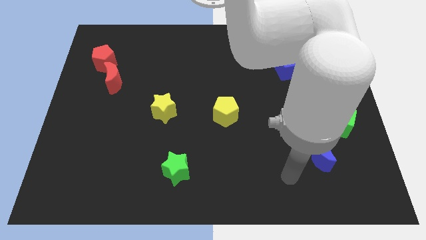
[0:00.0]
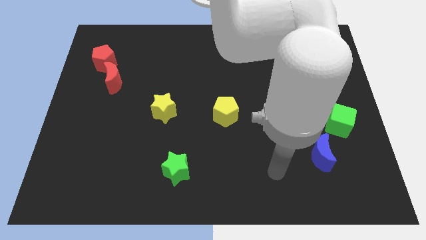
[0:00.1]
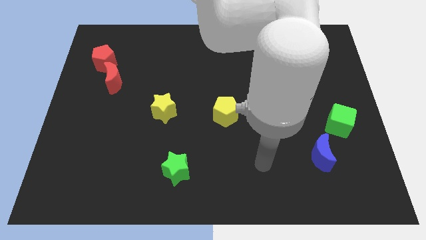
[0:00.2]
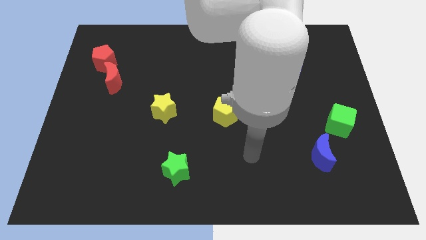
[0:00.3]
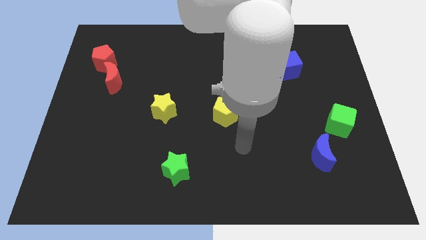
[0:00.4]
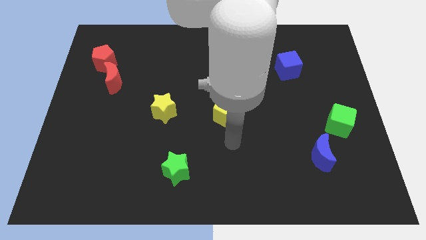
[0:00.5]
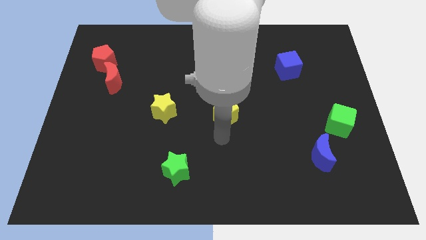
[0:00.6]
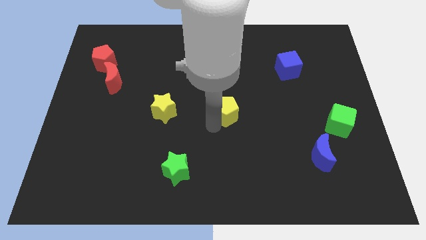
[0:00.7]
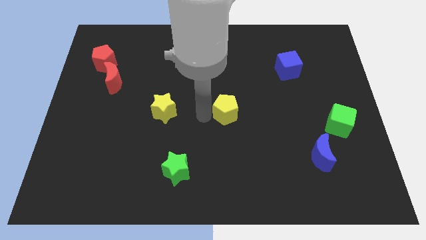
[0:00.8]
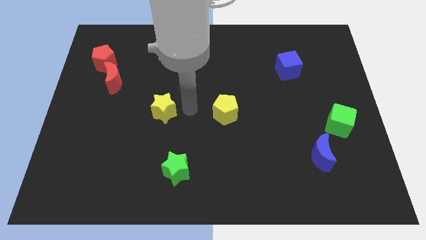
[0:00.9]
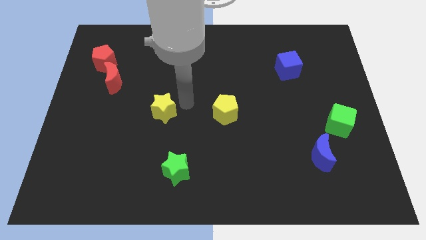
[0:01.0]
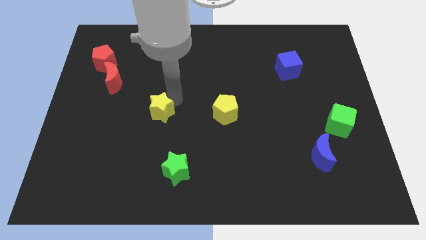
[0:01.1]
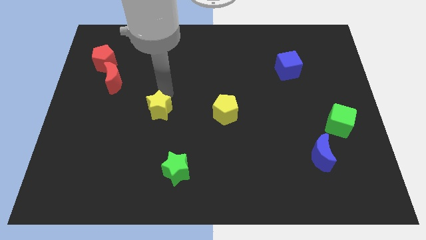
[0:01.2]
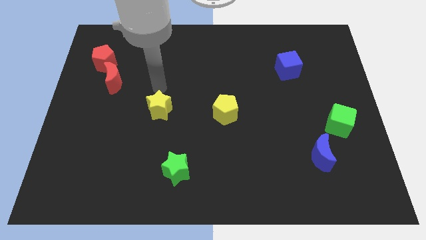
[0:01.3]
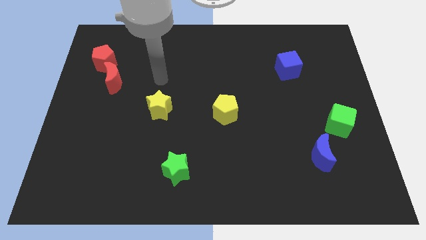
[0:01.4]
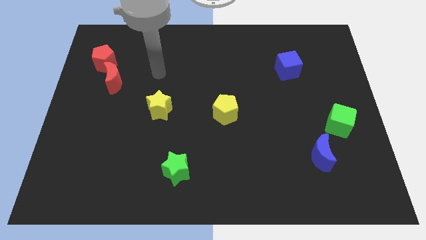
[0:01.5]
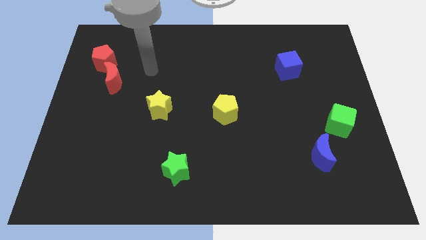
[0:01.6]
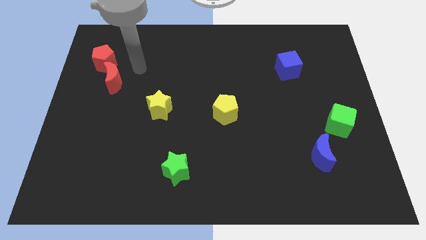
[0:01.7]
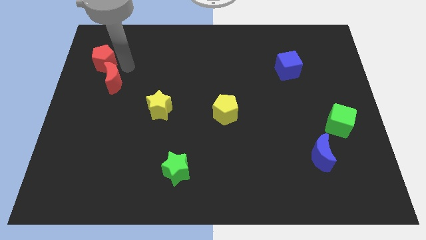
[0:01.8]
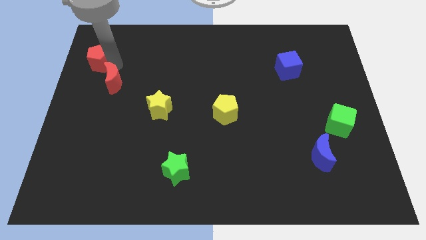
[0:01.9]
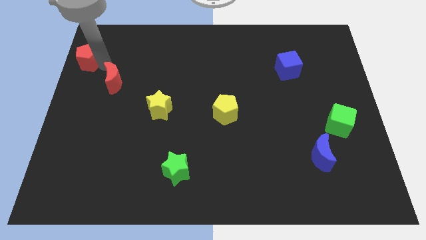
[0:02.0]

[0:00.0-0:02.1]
pull the red moon apart from the red pentagon

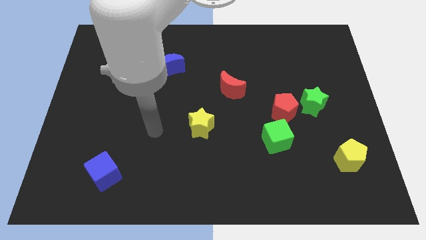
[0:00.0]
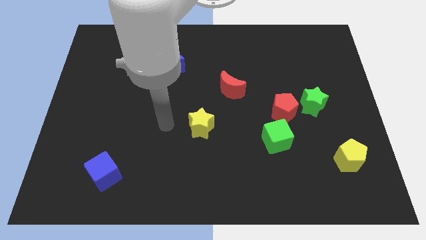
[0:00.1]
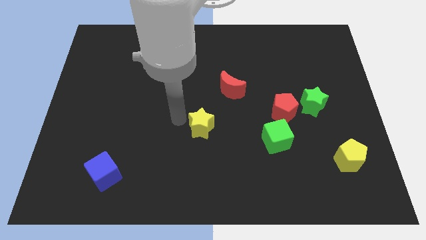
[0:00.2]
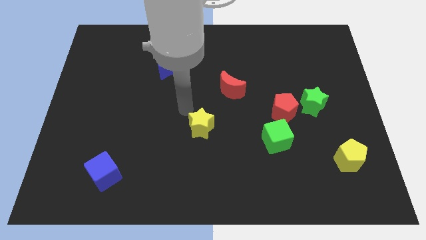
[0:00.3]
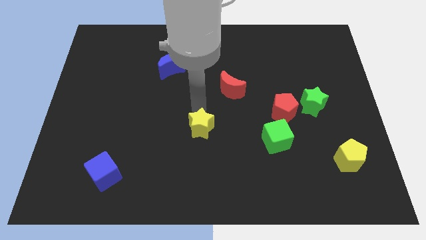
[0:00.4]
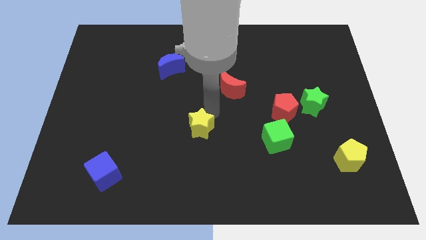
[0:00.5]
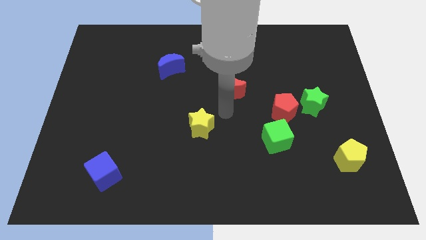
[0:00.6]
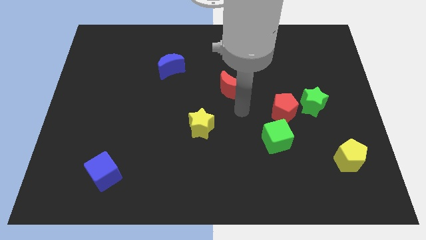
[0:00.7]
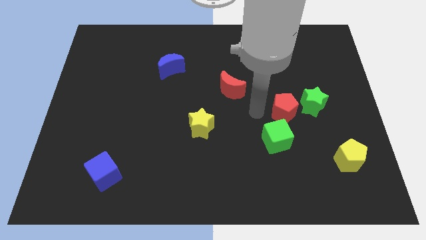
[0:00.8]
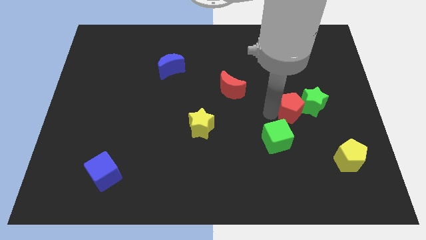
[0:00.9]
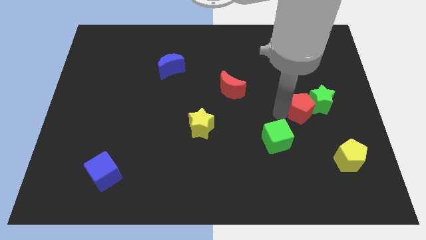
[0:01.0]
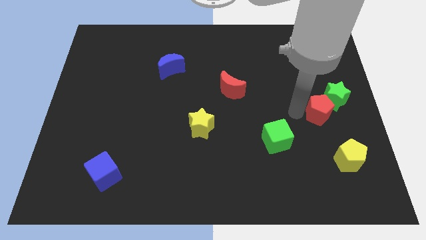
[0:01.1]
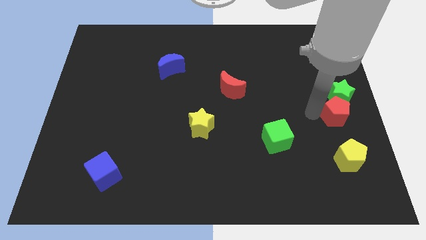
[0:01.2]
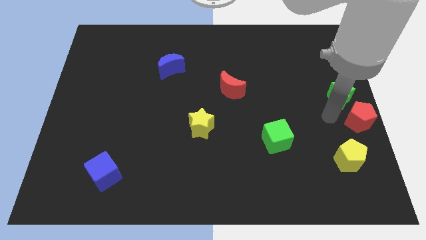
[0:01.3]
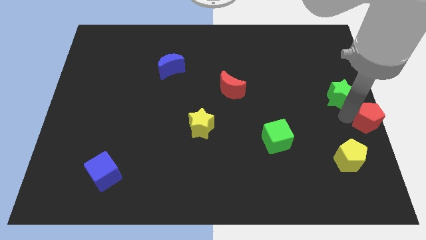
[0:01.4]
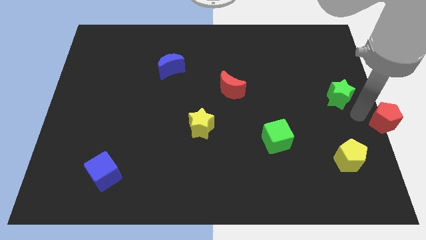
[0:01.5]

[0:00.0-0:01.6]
pull the green star apart from the red pentagon

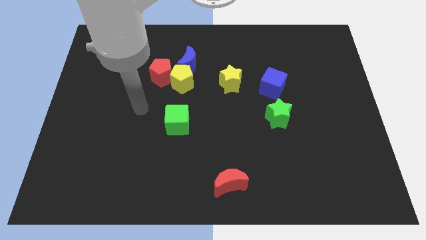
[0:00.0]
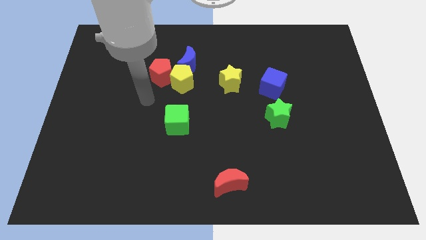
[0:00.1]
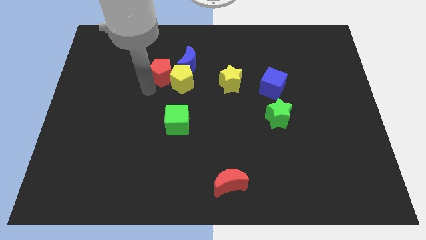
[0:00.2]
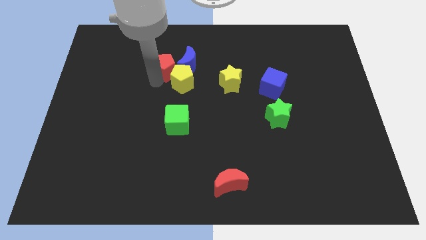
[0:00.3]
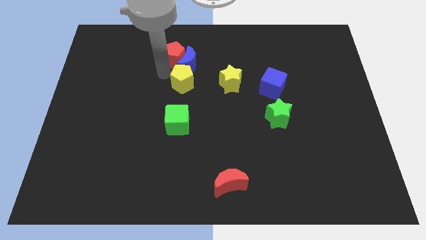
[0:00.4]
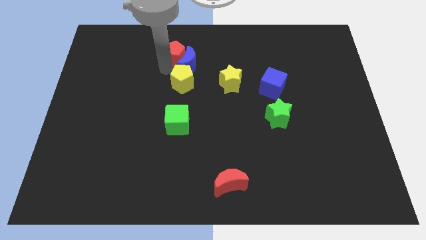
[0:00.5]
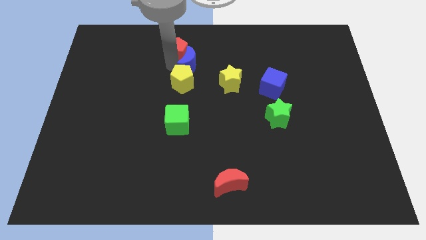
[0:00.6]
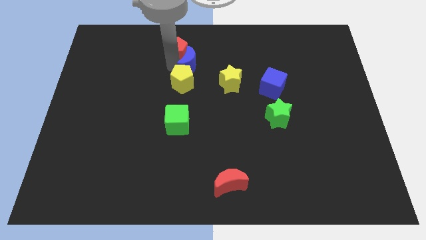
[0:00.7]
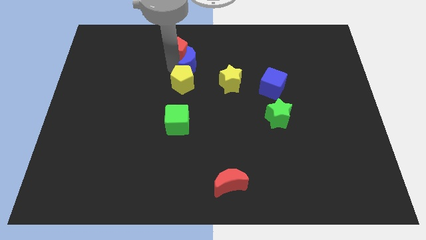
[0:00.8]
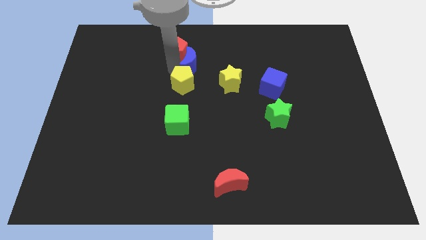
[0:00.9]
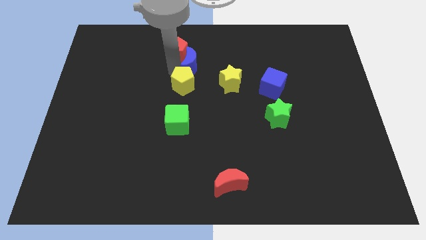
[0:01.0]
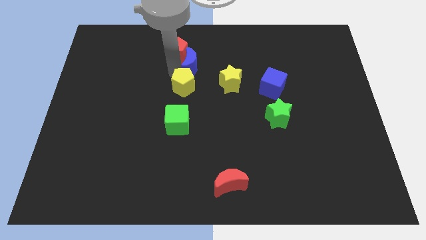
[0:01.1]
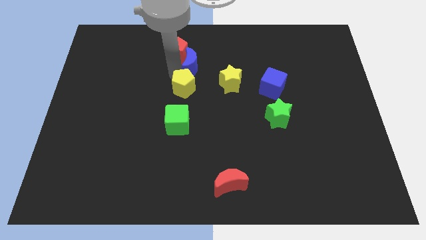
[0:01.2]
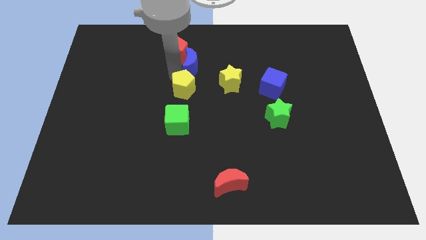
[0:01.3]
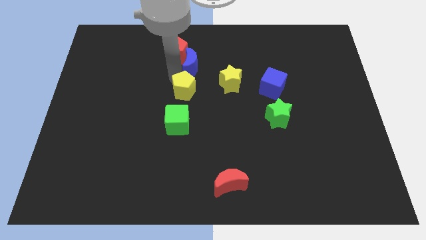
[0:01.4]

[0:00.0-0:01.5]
pull the yellow pentagon apart from the blue moon and red pentagon

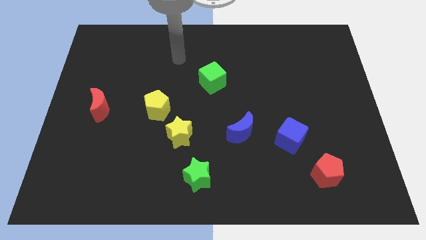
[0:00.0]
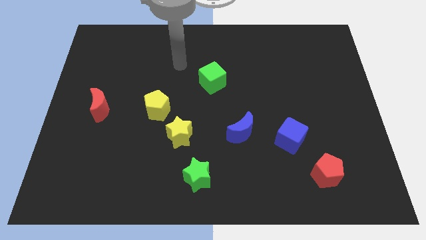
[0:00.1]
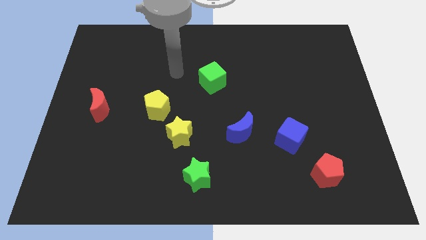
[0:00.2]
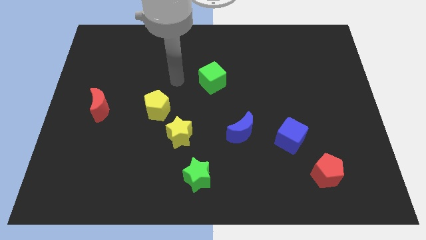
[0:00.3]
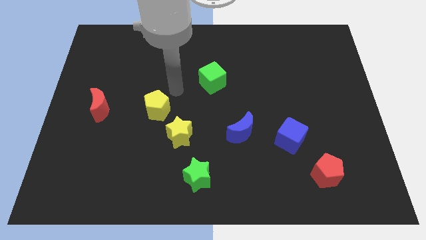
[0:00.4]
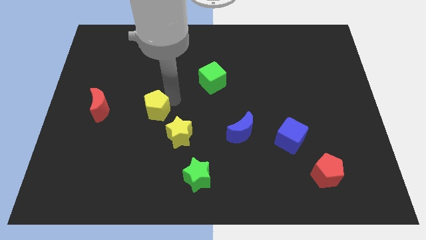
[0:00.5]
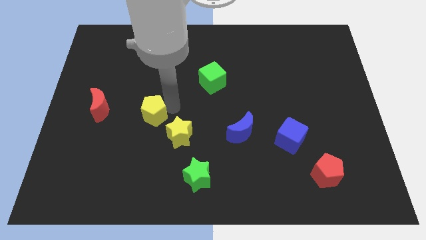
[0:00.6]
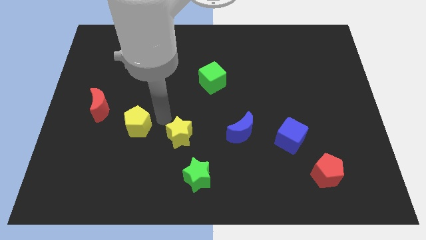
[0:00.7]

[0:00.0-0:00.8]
move the yellow star away from the yellow pentagon

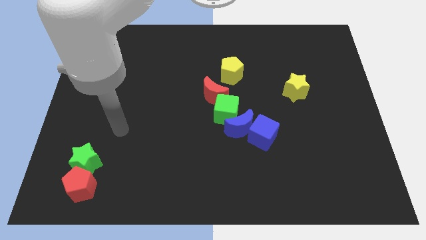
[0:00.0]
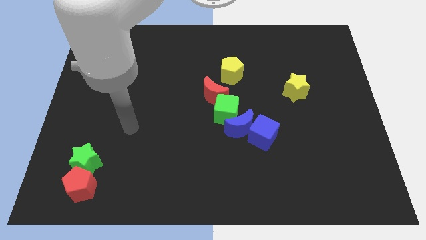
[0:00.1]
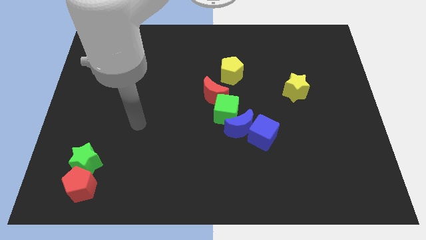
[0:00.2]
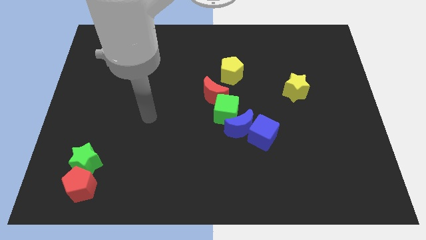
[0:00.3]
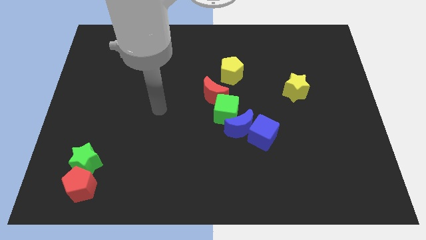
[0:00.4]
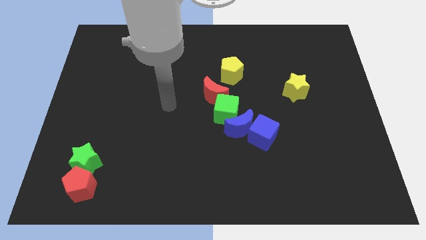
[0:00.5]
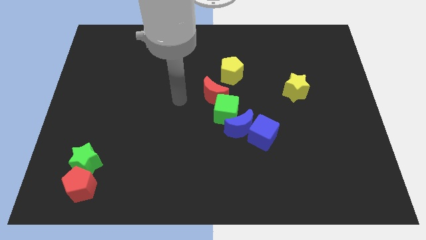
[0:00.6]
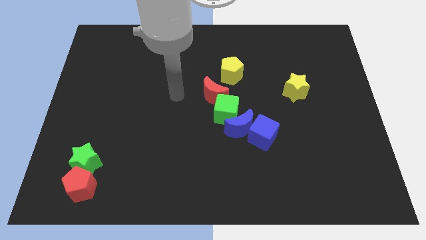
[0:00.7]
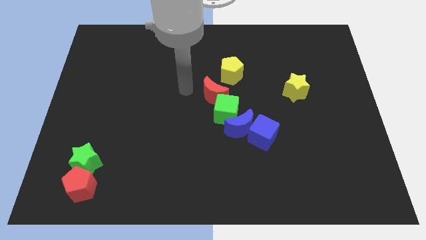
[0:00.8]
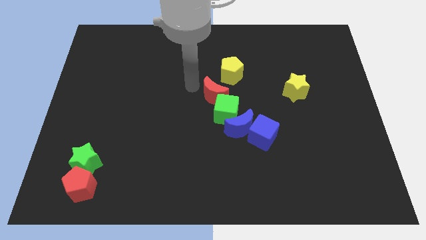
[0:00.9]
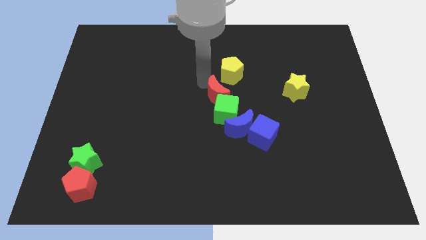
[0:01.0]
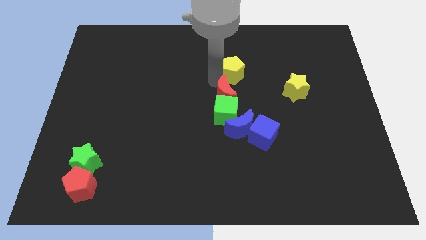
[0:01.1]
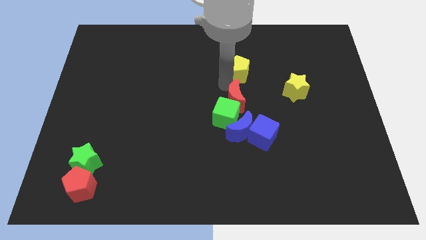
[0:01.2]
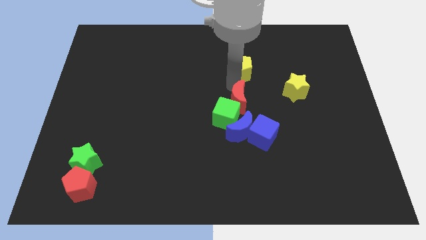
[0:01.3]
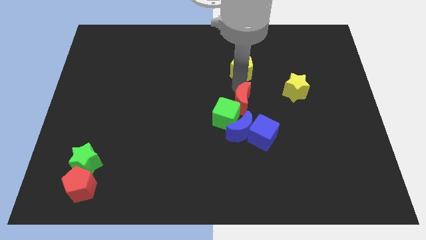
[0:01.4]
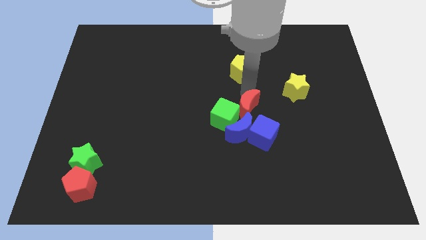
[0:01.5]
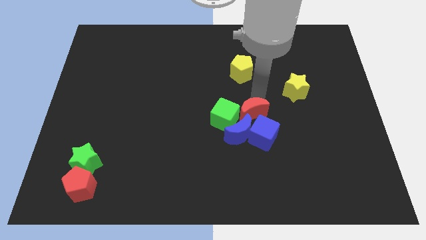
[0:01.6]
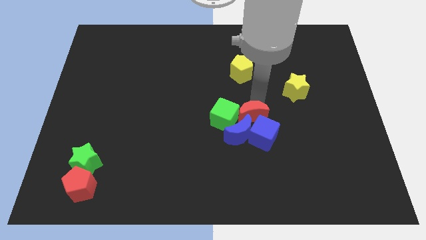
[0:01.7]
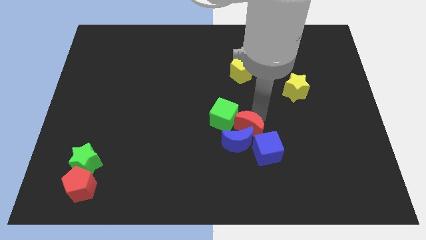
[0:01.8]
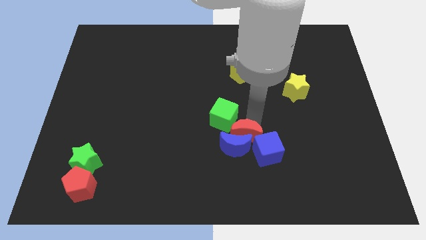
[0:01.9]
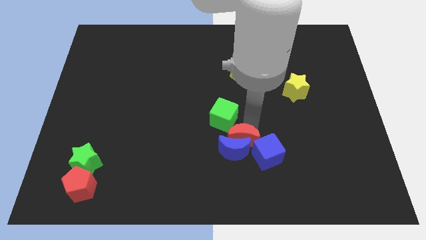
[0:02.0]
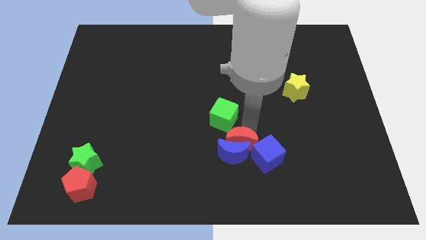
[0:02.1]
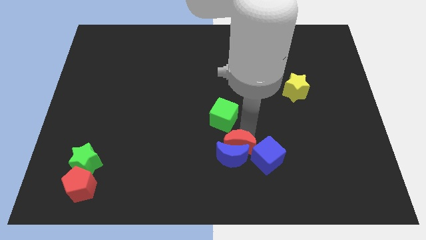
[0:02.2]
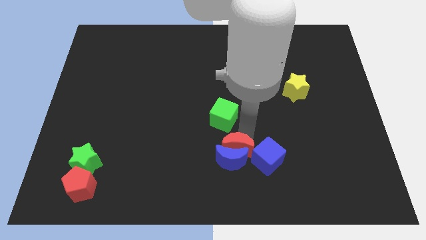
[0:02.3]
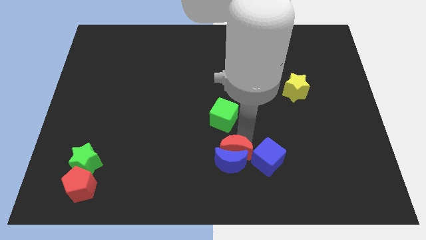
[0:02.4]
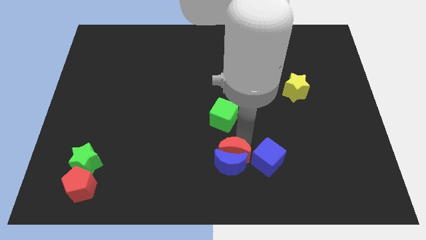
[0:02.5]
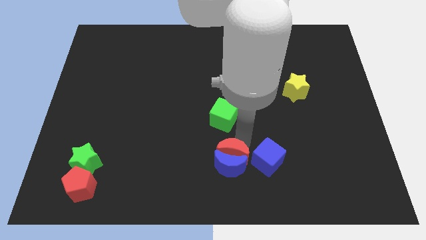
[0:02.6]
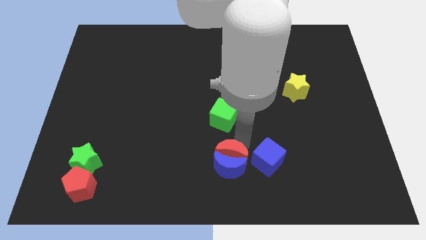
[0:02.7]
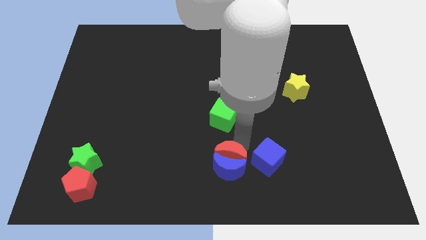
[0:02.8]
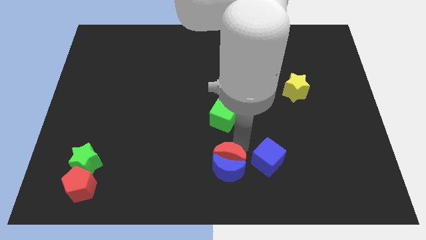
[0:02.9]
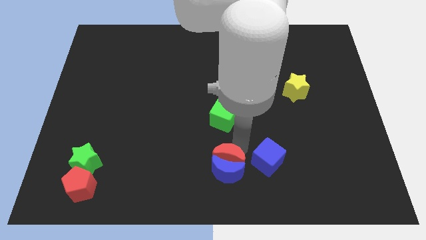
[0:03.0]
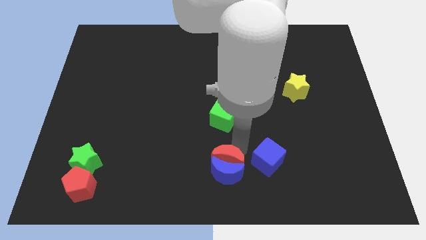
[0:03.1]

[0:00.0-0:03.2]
pull the blue moon apart from the blue cube and green cube
